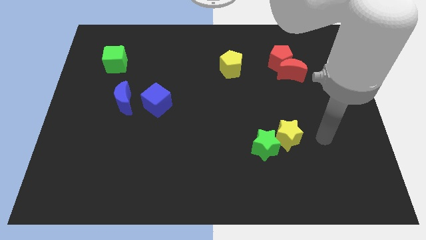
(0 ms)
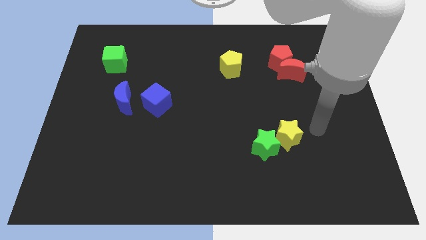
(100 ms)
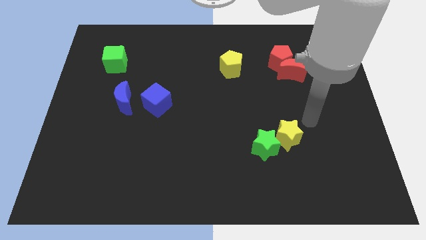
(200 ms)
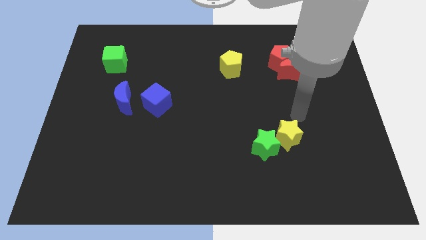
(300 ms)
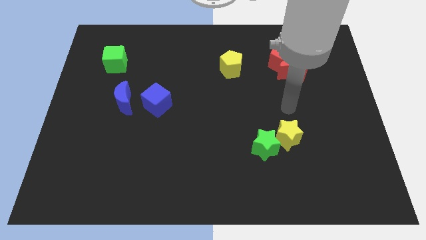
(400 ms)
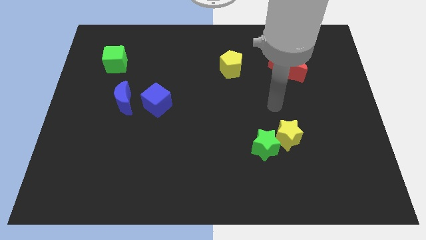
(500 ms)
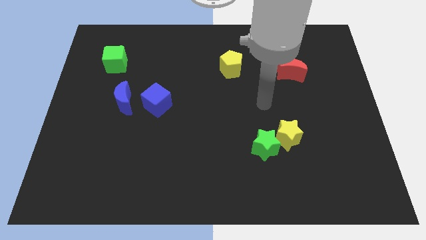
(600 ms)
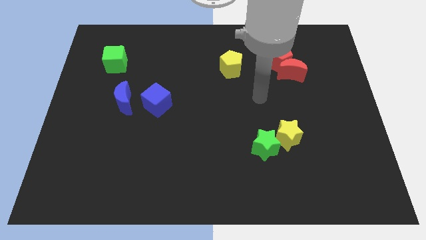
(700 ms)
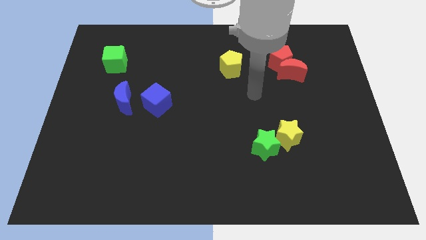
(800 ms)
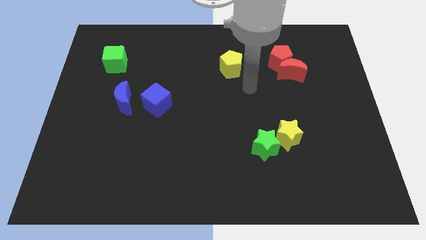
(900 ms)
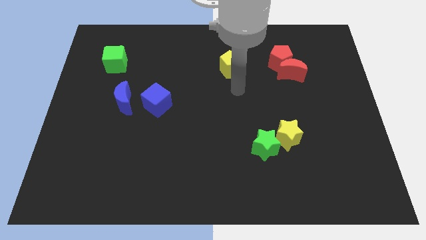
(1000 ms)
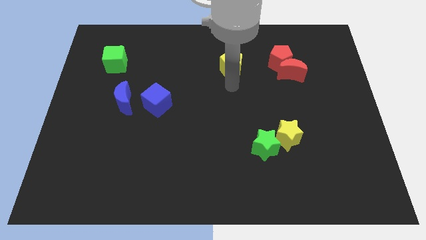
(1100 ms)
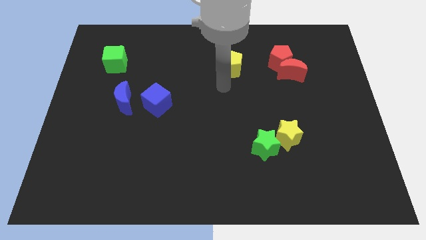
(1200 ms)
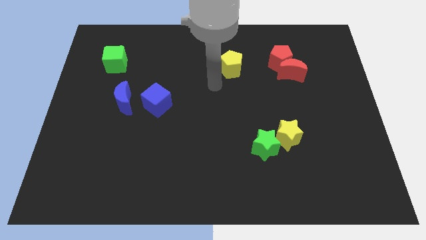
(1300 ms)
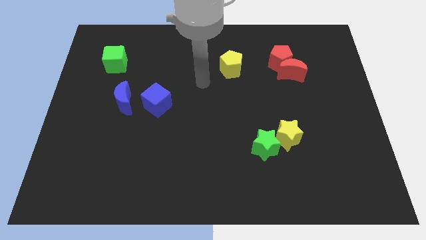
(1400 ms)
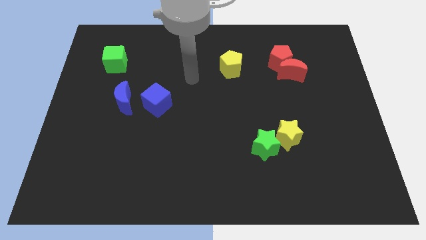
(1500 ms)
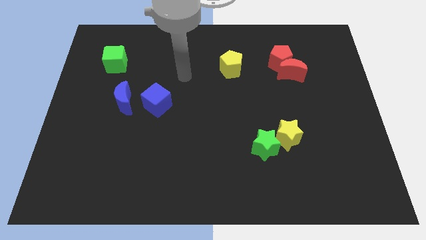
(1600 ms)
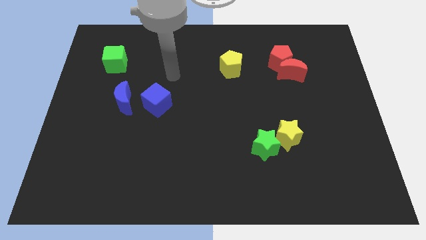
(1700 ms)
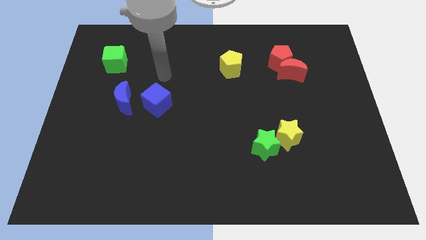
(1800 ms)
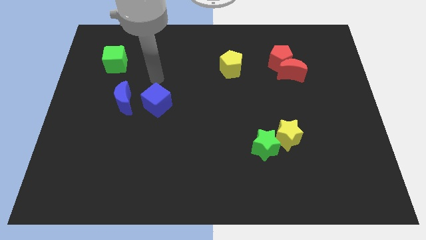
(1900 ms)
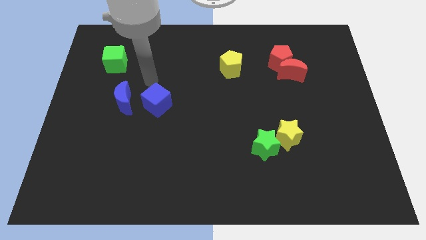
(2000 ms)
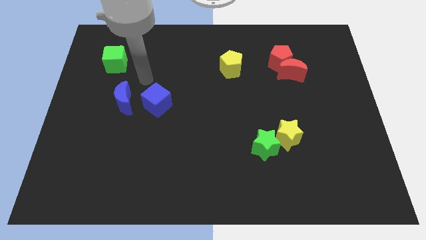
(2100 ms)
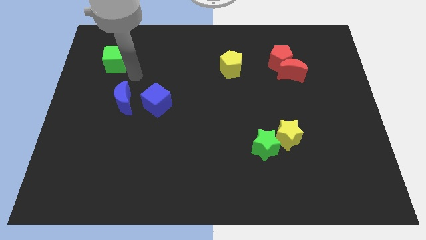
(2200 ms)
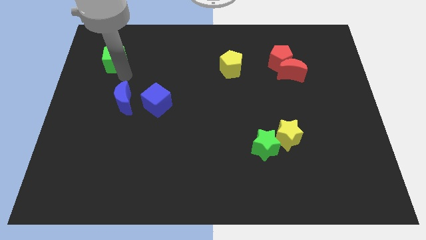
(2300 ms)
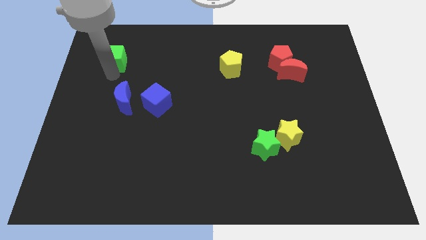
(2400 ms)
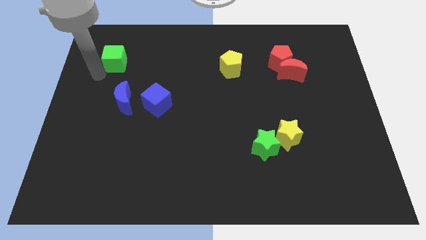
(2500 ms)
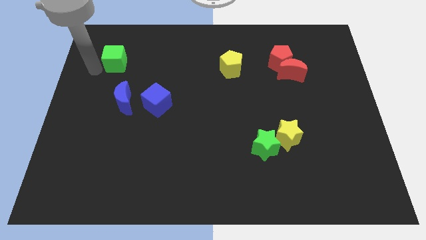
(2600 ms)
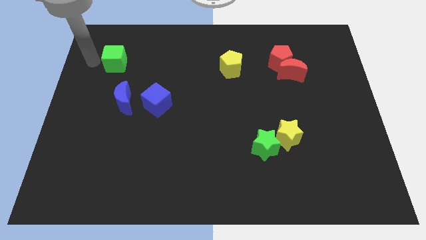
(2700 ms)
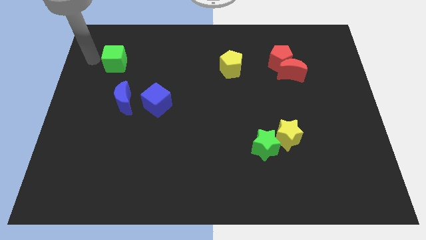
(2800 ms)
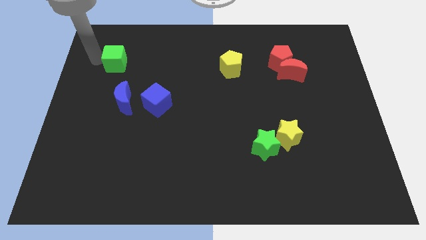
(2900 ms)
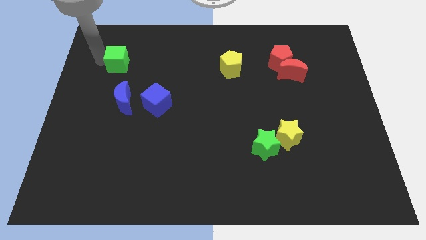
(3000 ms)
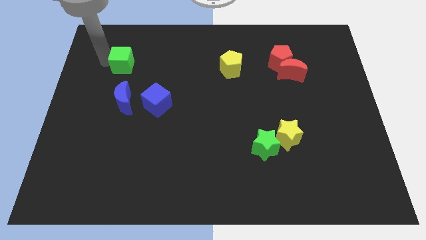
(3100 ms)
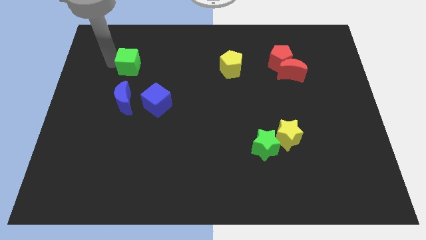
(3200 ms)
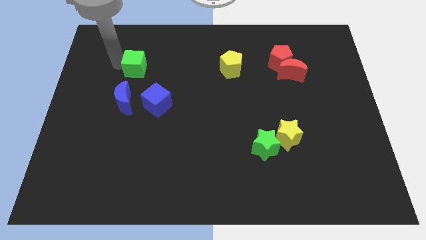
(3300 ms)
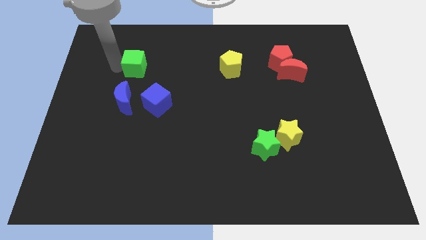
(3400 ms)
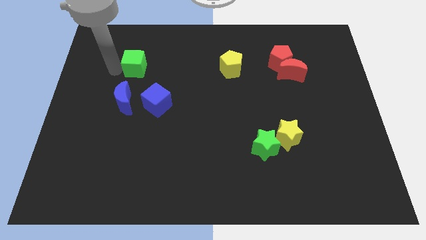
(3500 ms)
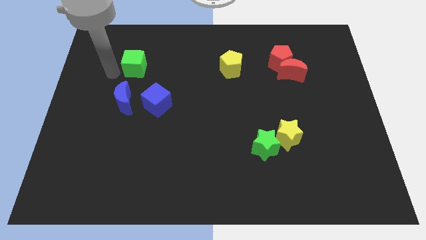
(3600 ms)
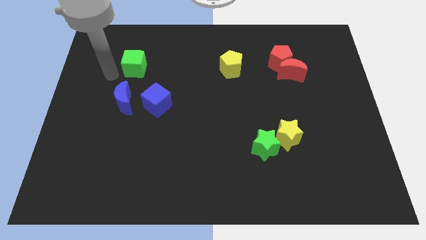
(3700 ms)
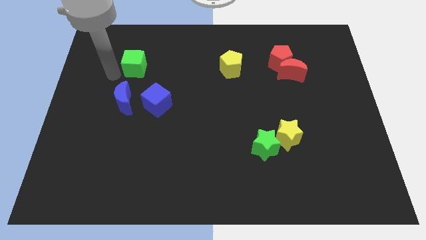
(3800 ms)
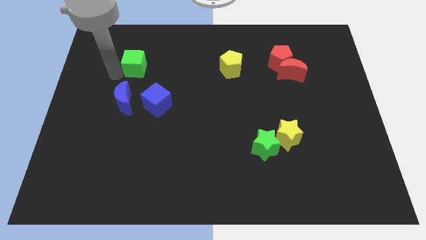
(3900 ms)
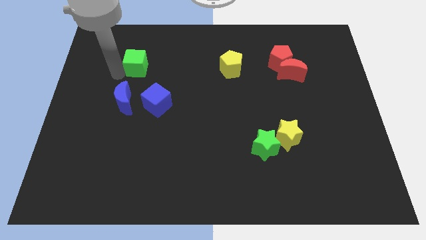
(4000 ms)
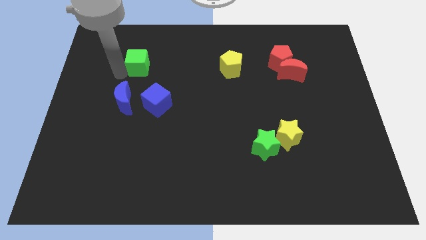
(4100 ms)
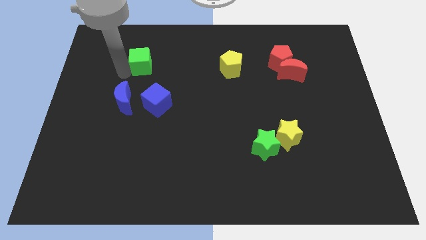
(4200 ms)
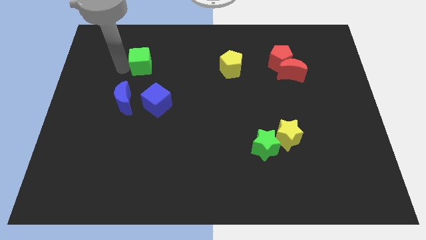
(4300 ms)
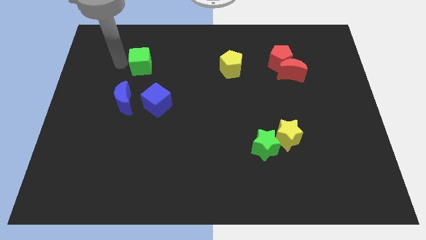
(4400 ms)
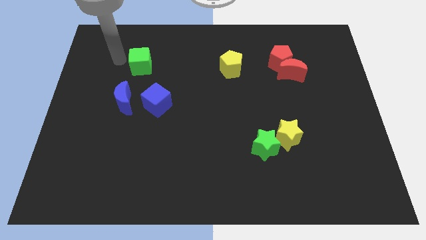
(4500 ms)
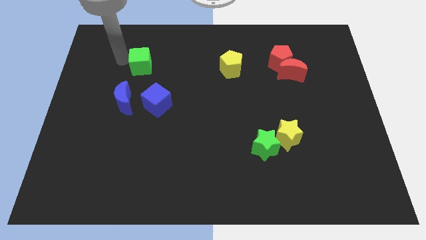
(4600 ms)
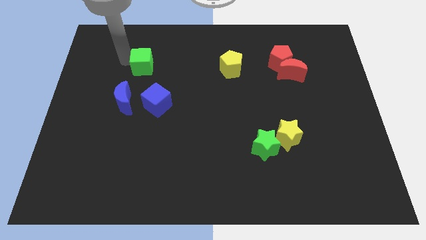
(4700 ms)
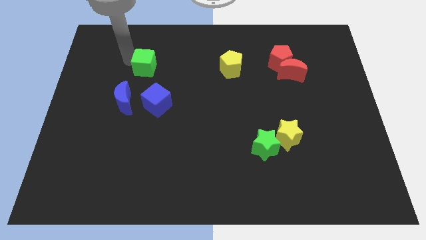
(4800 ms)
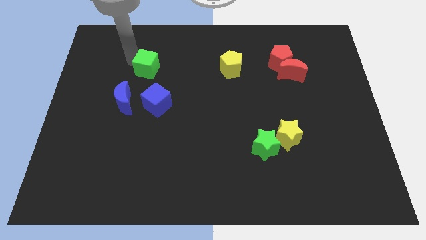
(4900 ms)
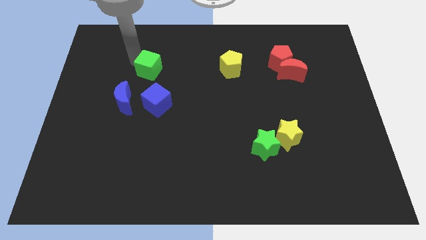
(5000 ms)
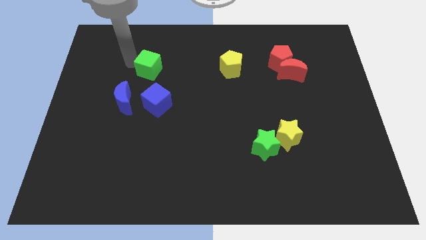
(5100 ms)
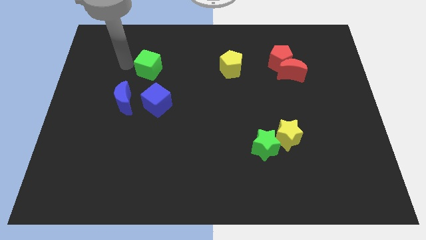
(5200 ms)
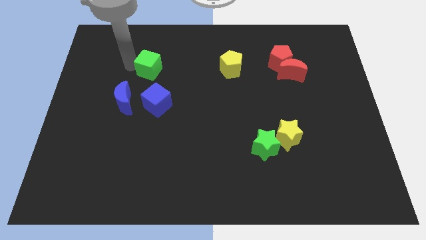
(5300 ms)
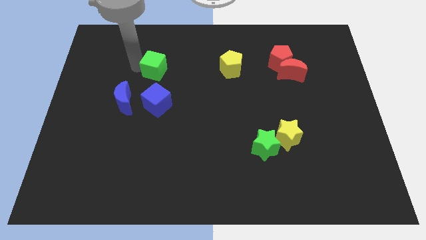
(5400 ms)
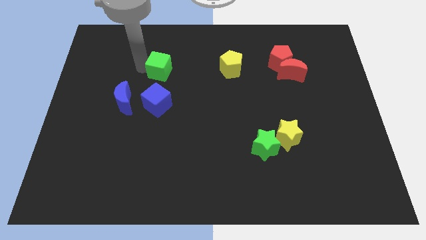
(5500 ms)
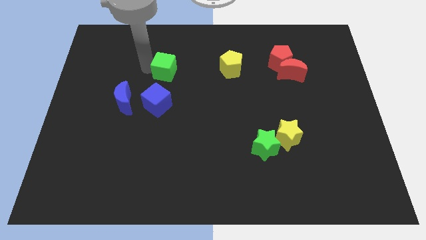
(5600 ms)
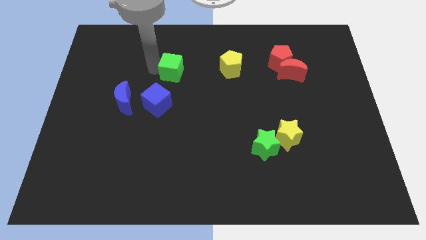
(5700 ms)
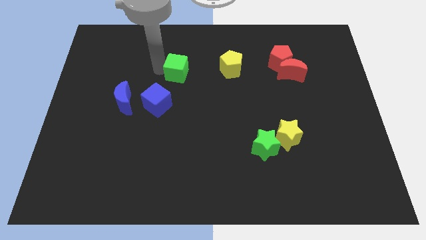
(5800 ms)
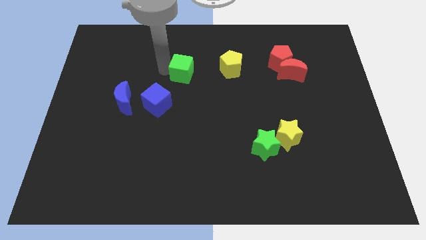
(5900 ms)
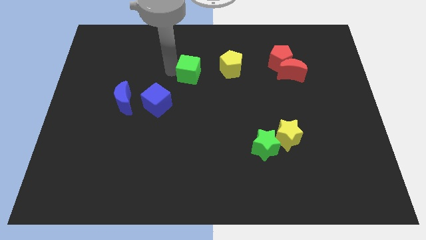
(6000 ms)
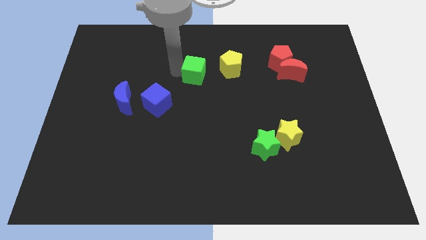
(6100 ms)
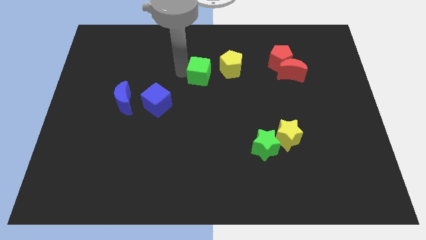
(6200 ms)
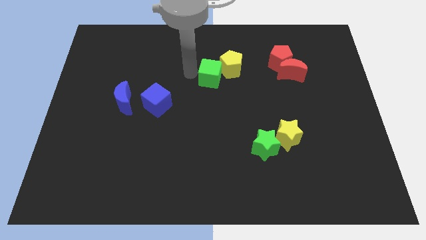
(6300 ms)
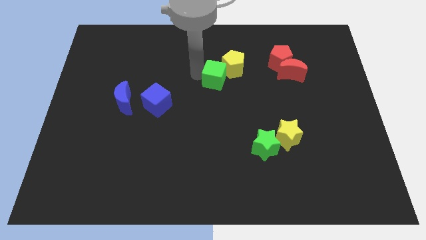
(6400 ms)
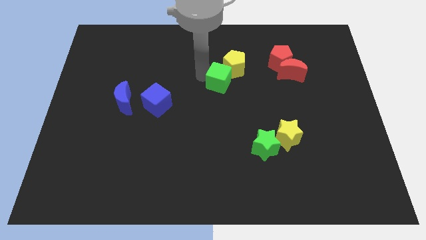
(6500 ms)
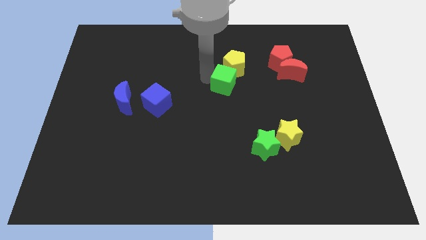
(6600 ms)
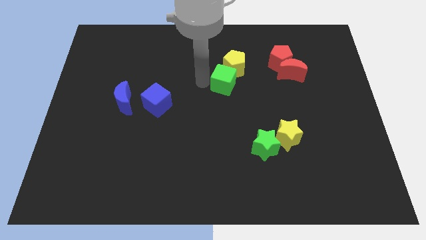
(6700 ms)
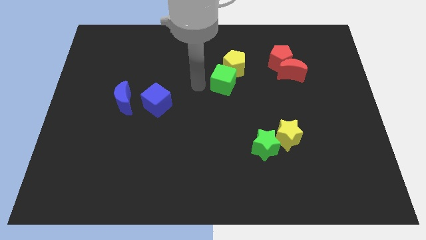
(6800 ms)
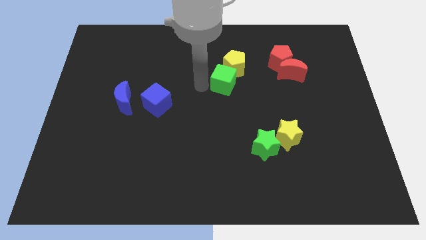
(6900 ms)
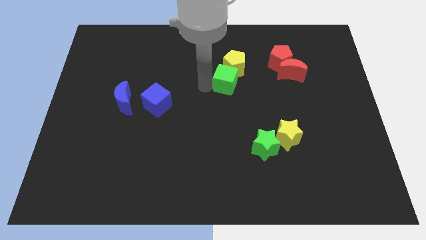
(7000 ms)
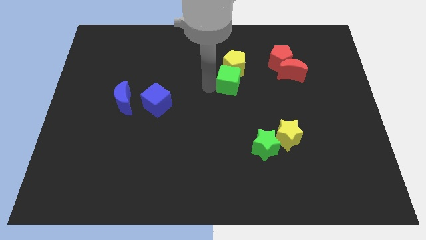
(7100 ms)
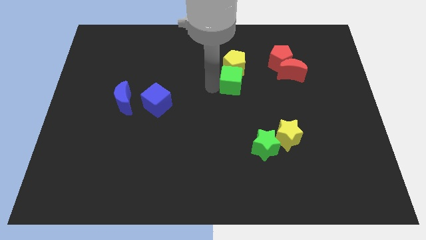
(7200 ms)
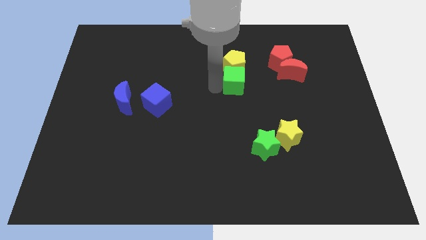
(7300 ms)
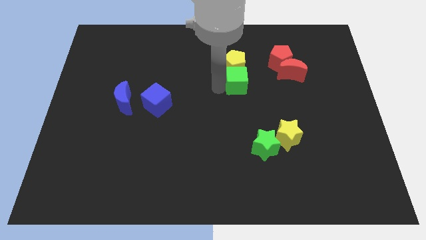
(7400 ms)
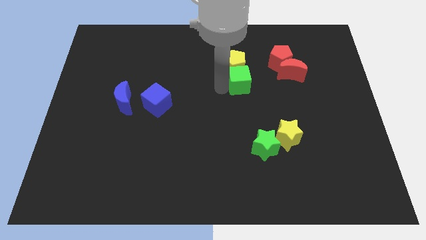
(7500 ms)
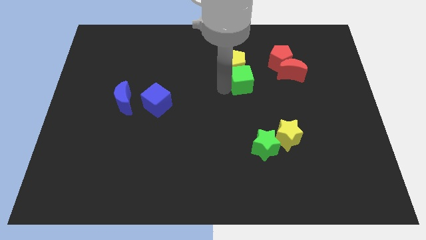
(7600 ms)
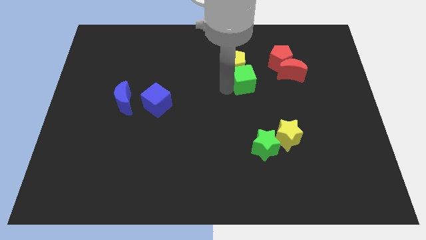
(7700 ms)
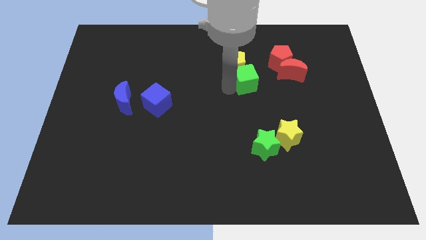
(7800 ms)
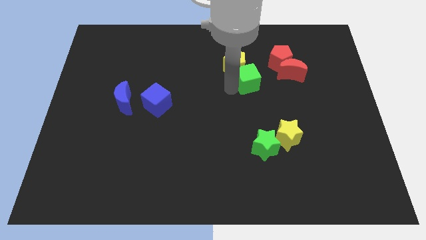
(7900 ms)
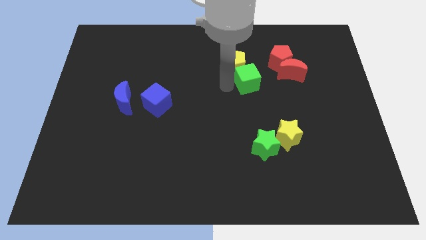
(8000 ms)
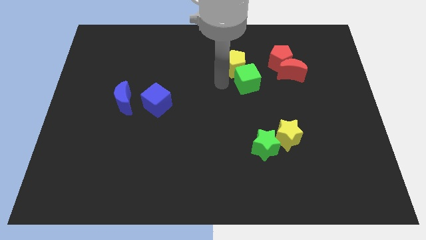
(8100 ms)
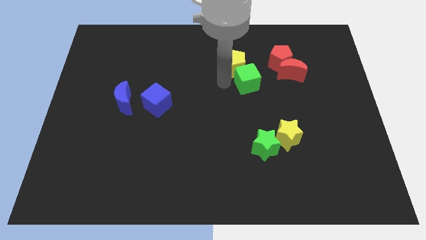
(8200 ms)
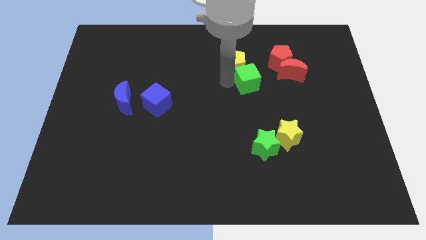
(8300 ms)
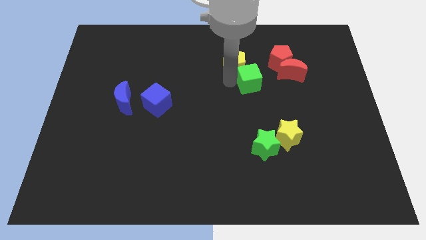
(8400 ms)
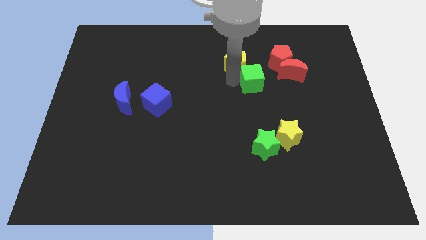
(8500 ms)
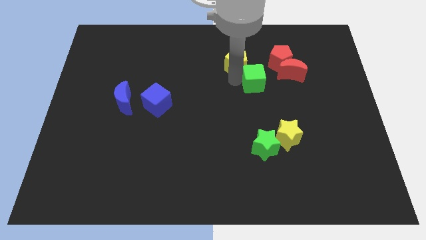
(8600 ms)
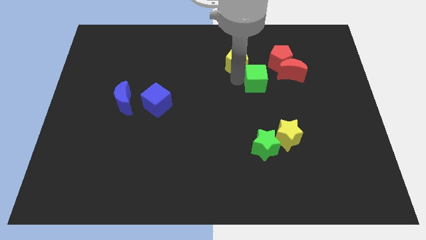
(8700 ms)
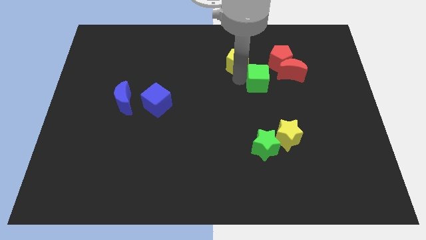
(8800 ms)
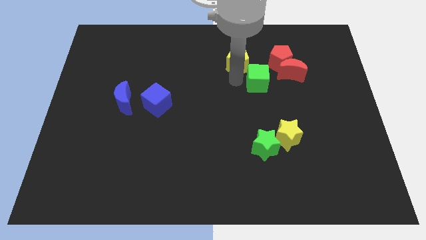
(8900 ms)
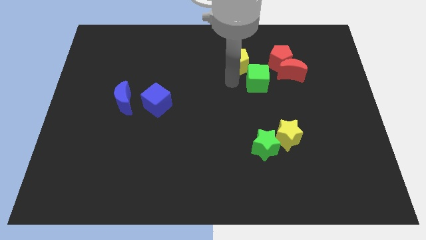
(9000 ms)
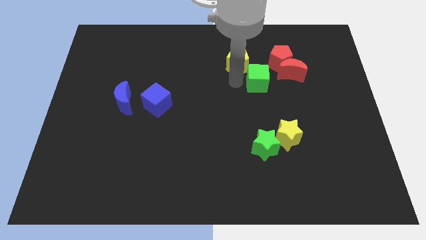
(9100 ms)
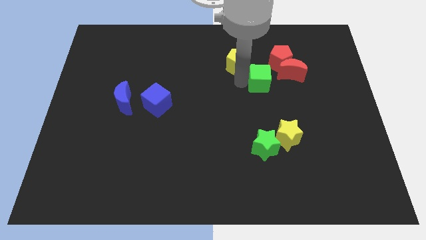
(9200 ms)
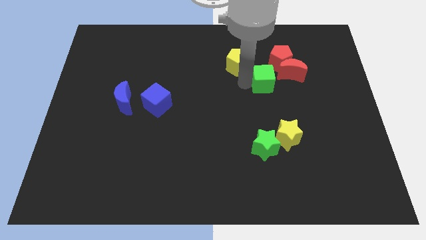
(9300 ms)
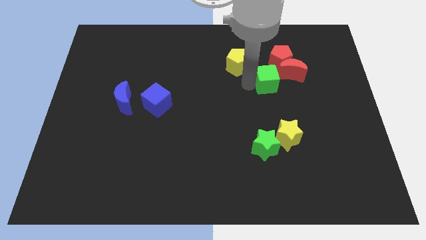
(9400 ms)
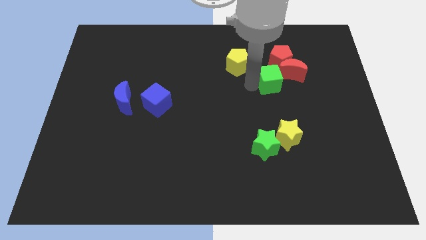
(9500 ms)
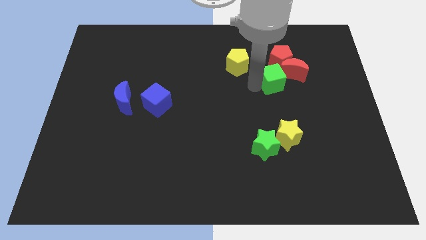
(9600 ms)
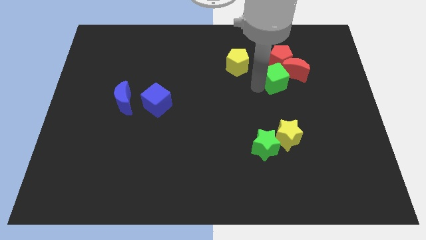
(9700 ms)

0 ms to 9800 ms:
push the green cube towards the red moon
